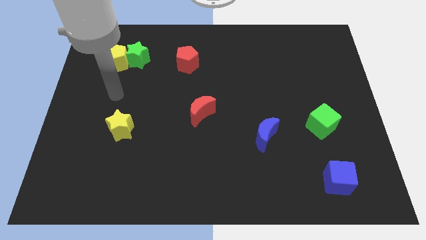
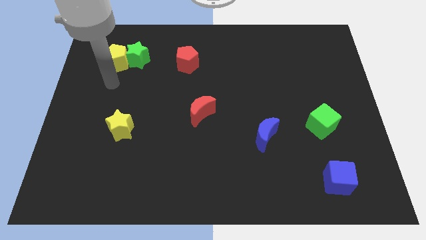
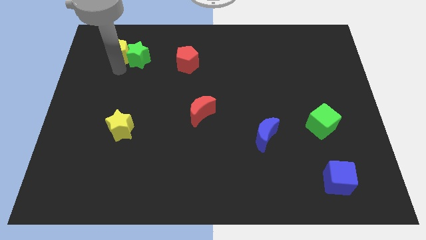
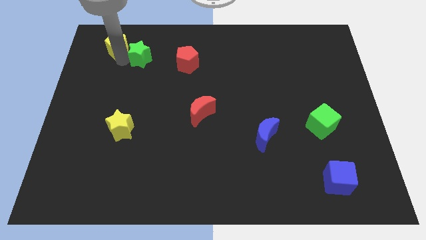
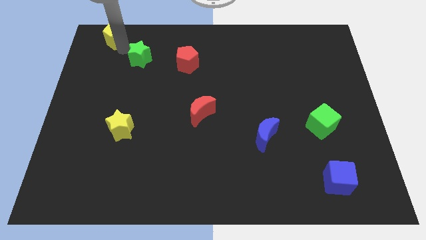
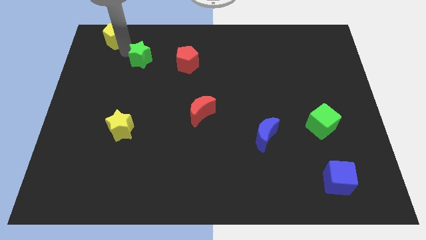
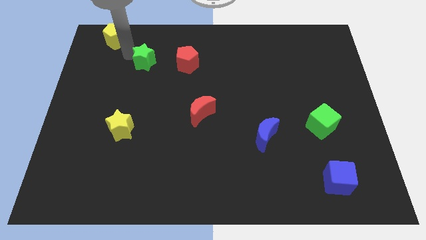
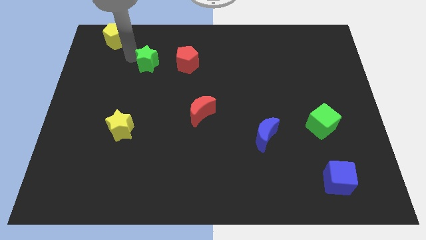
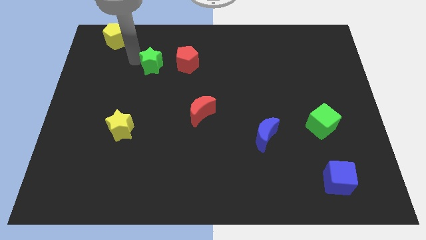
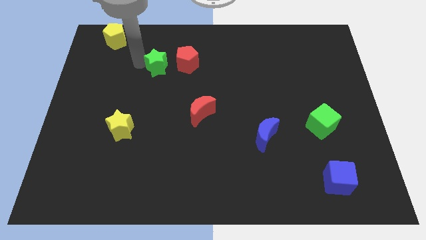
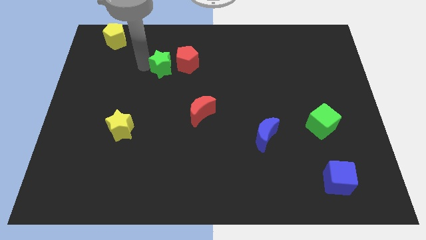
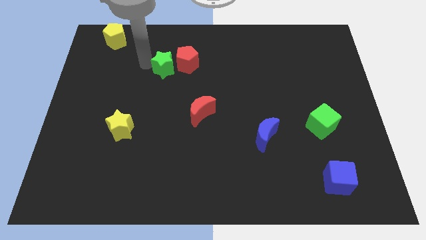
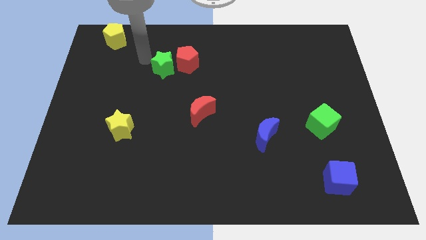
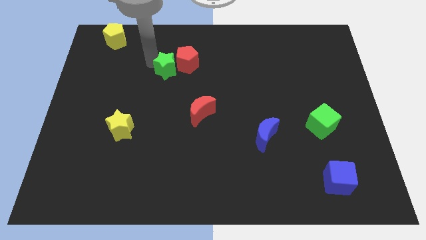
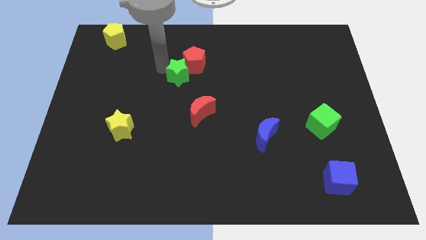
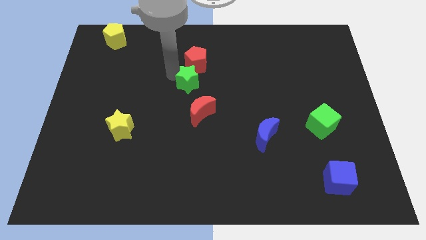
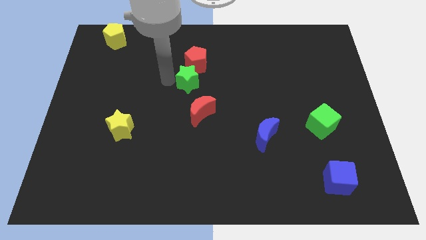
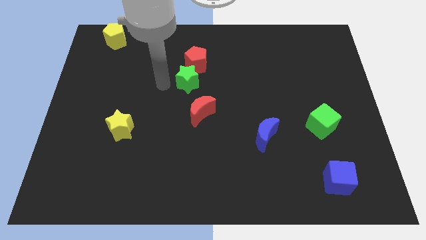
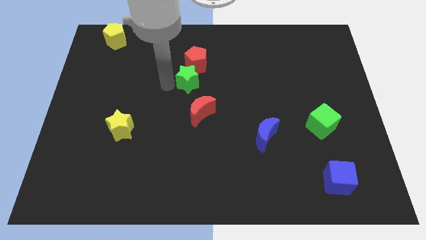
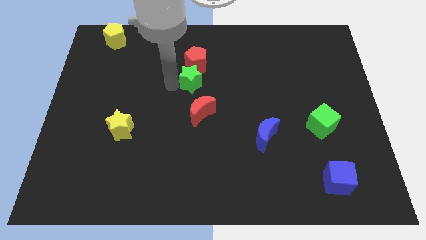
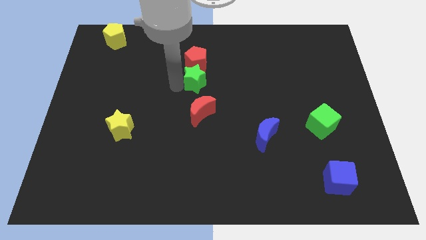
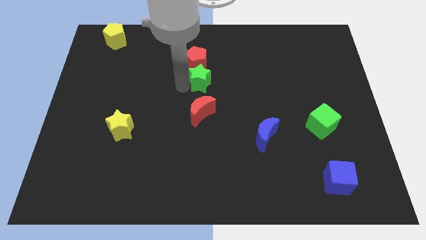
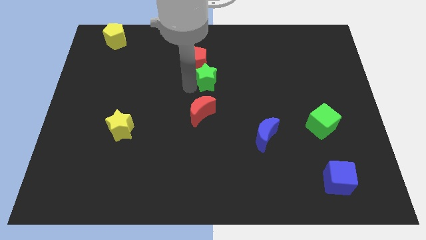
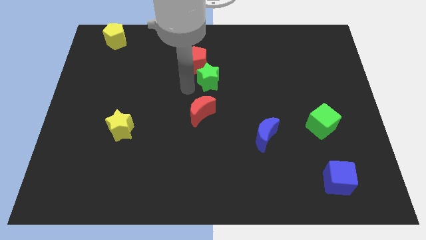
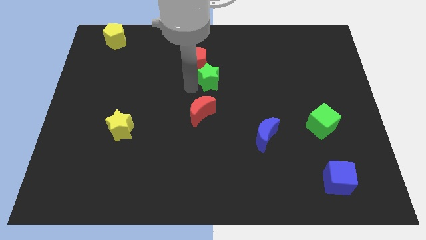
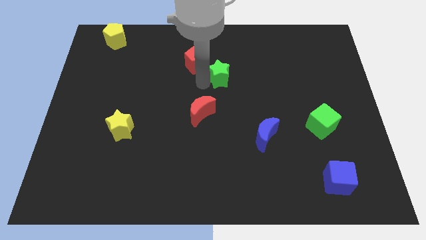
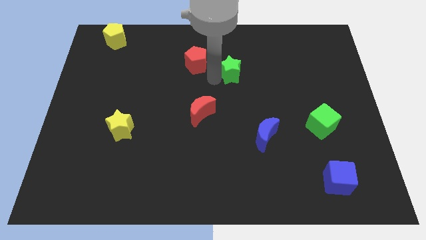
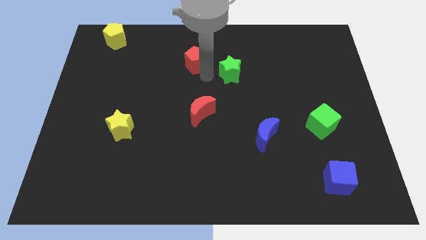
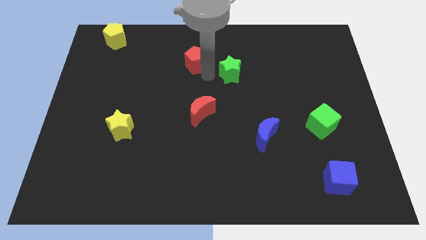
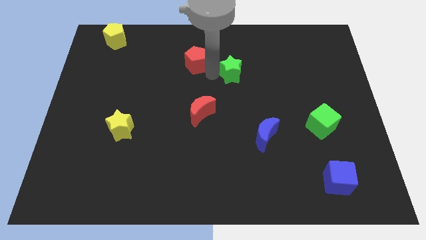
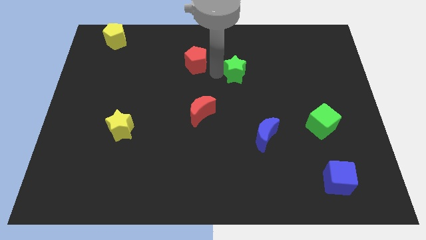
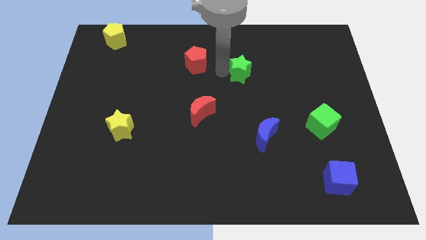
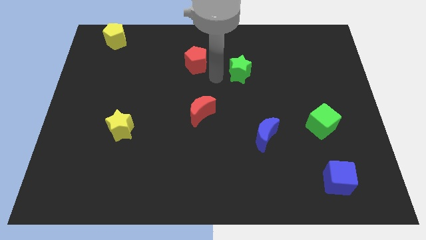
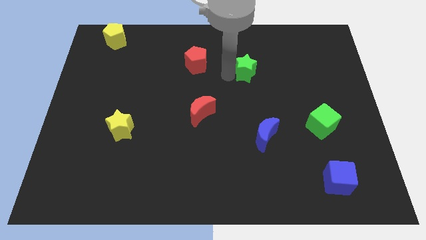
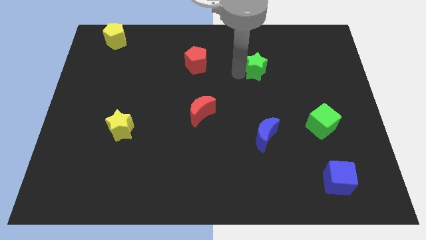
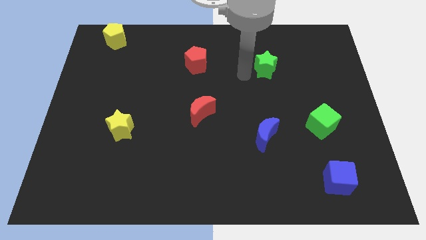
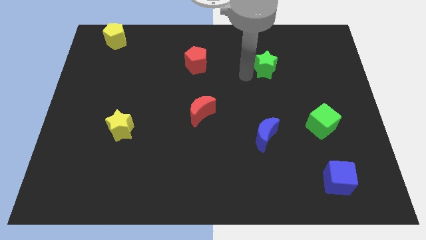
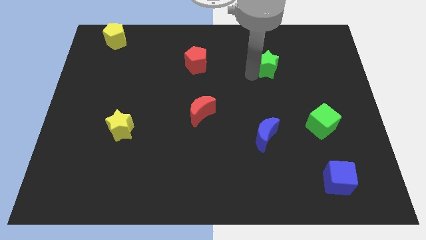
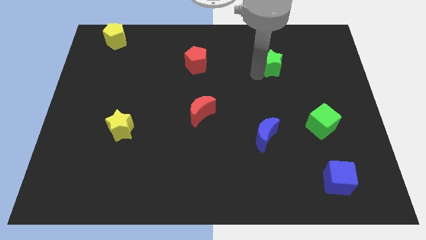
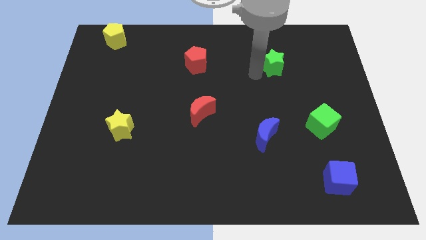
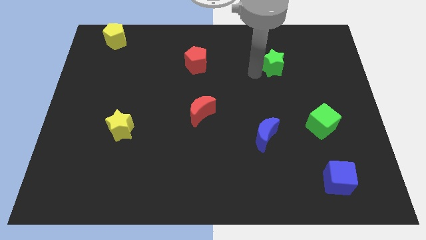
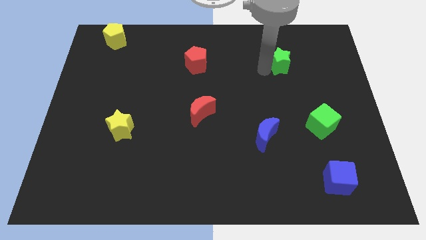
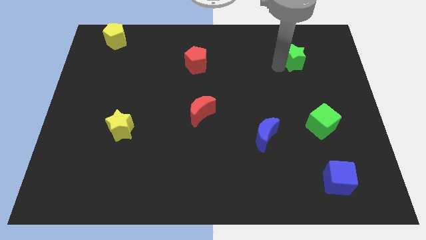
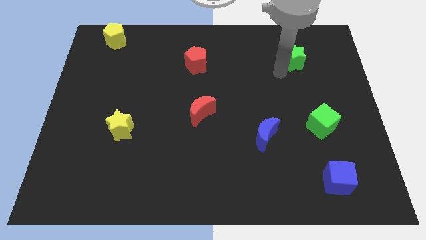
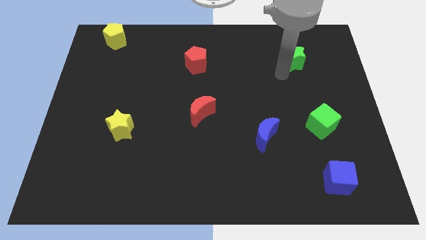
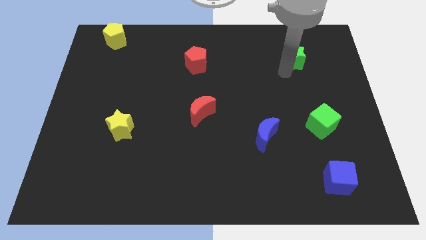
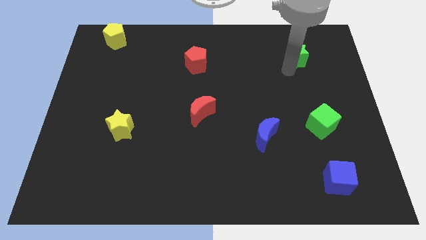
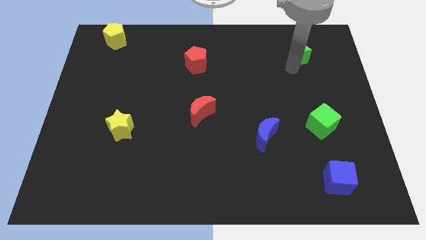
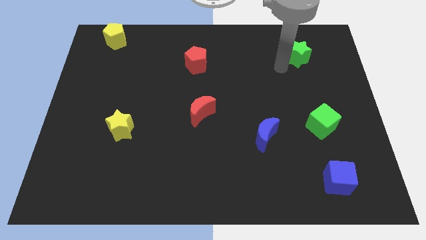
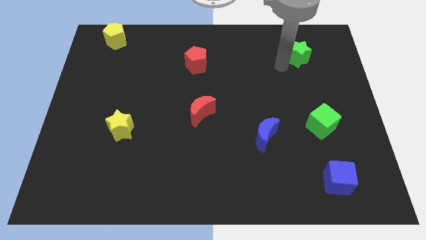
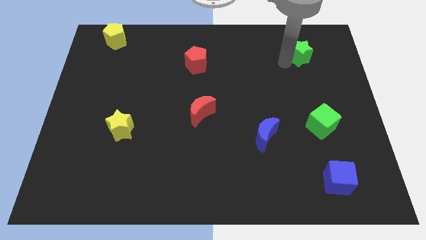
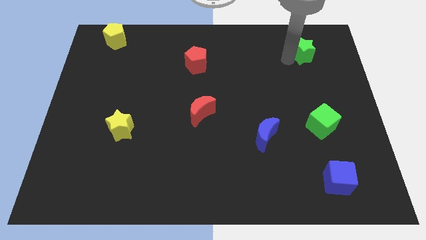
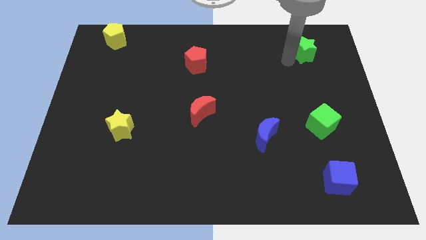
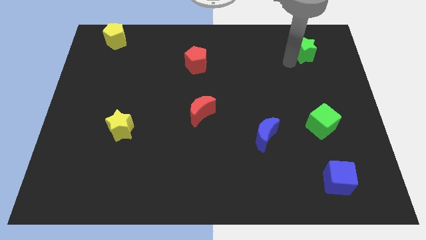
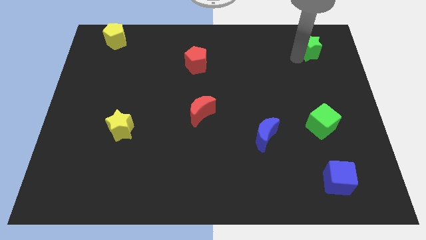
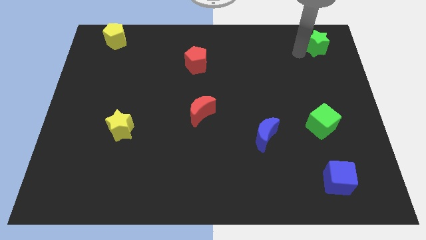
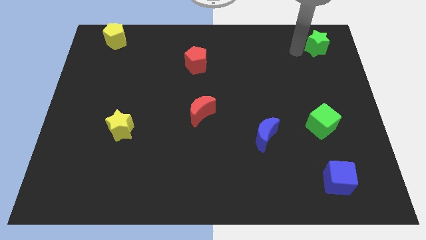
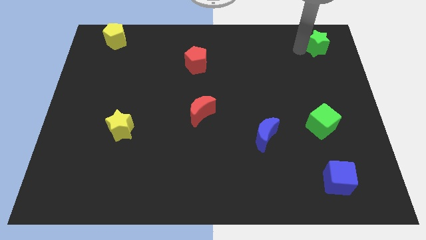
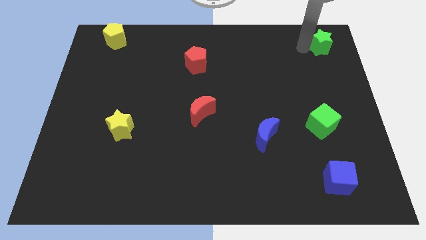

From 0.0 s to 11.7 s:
slide the green star to the top right

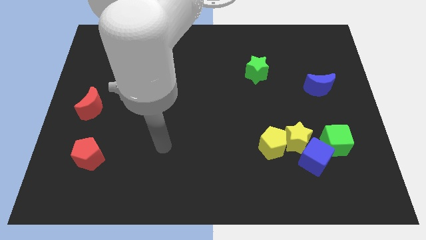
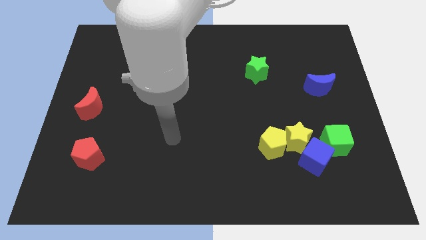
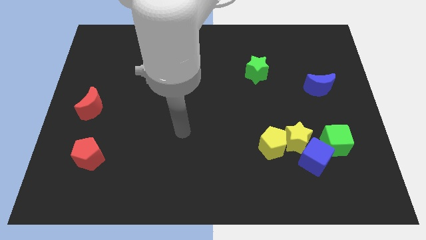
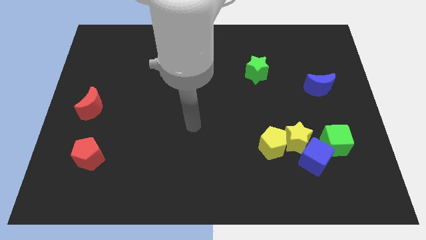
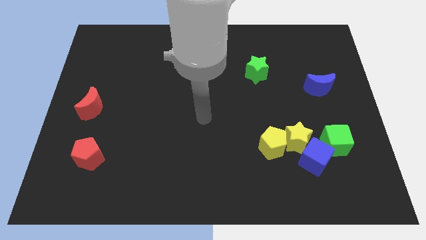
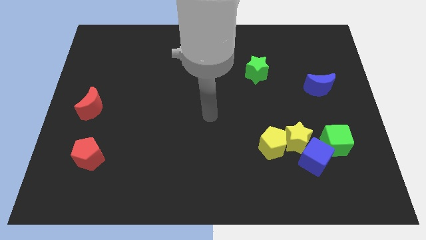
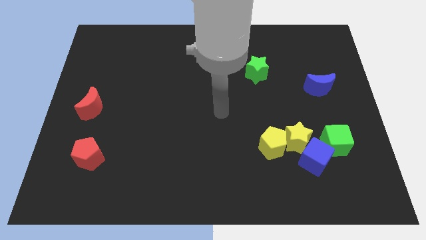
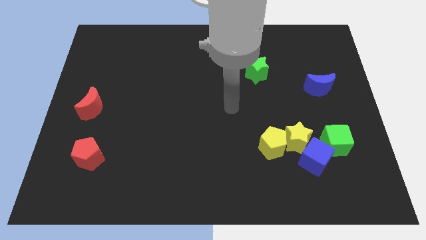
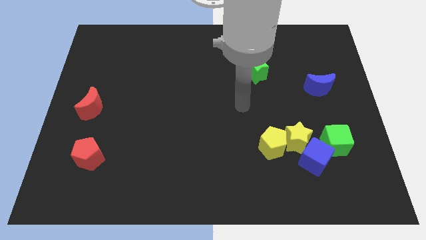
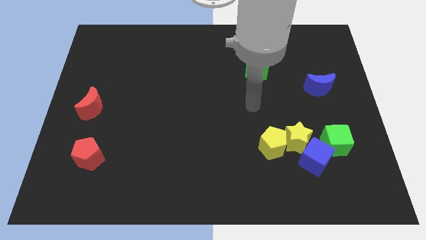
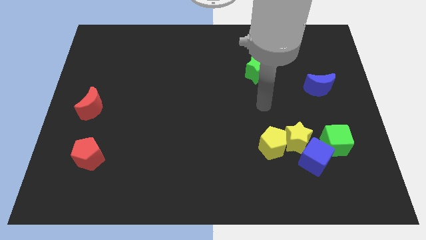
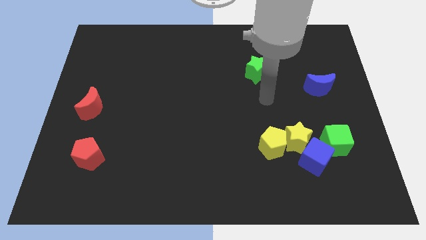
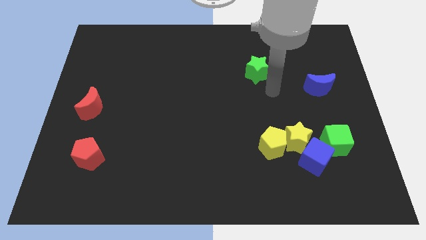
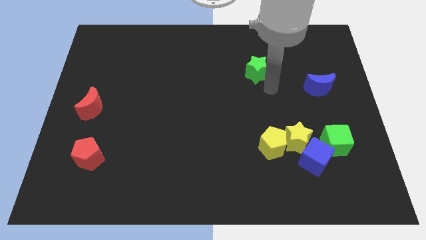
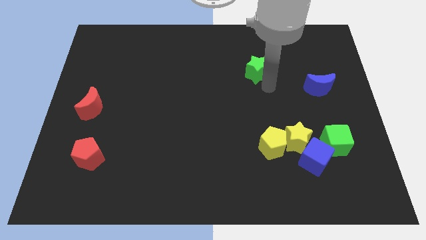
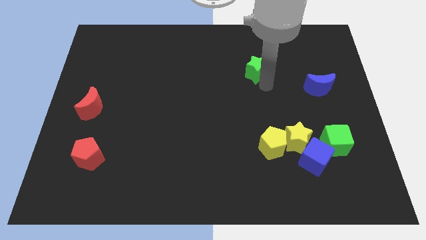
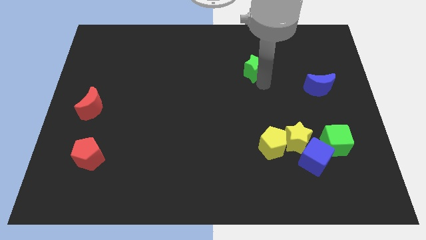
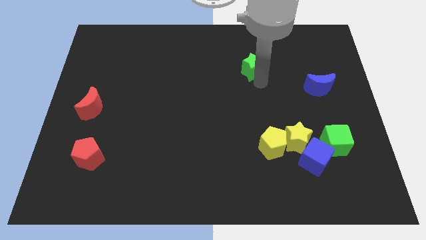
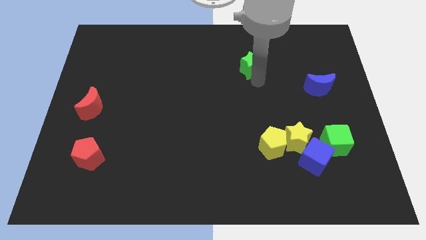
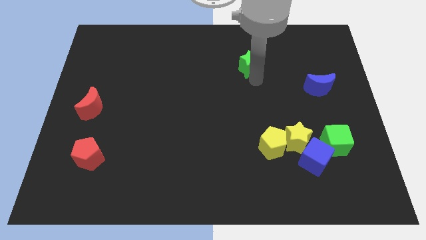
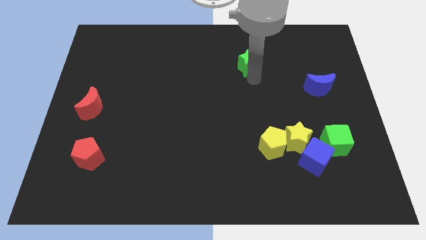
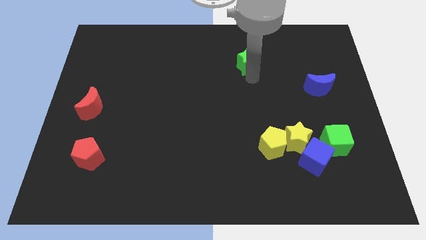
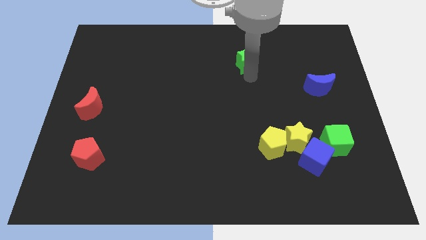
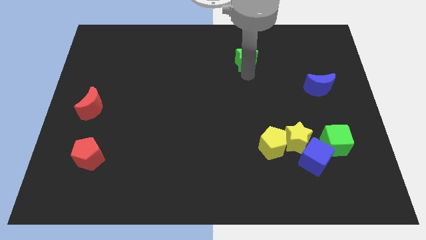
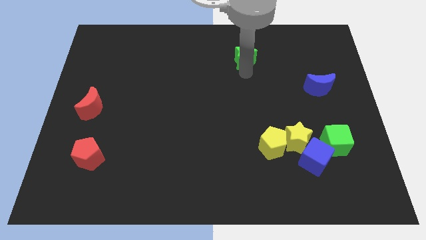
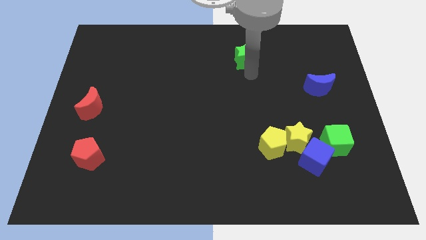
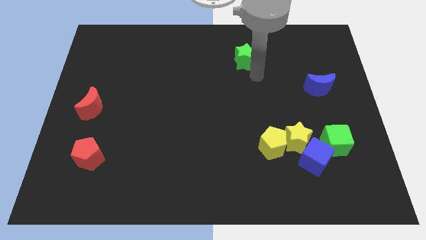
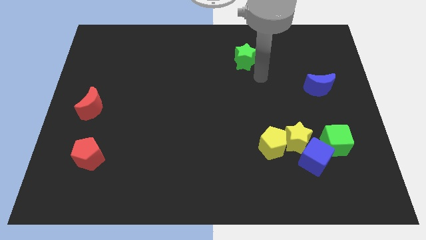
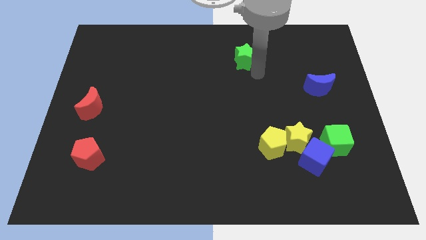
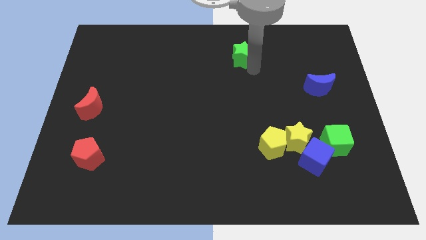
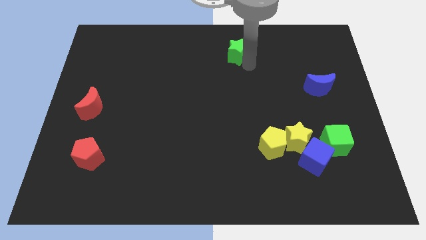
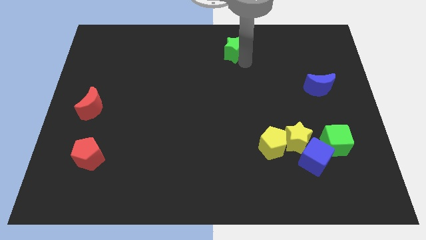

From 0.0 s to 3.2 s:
put the green star to the towards your base
